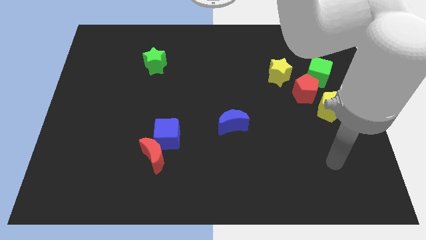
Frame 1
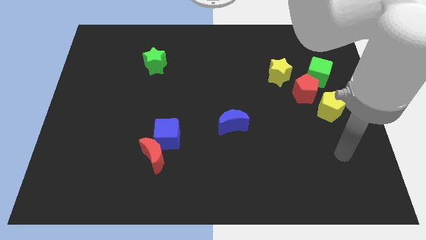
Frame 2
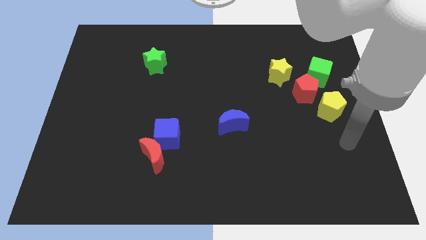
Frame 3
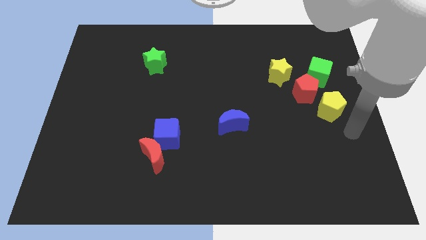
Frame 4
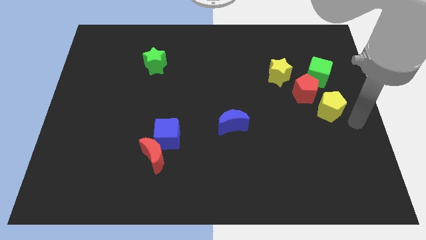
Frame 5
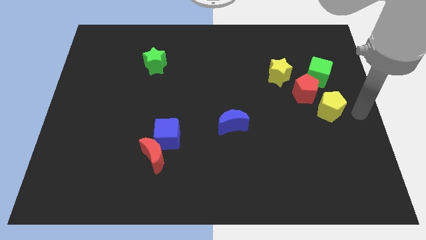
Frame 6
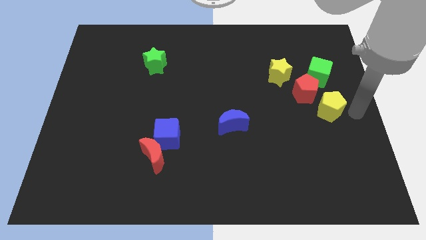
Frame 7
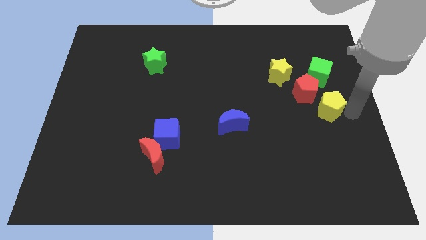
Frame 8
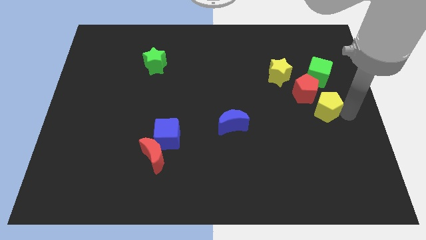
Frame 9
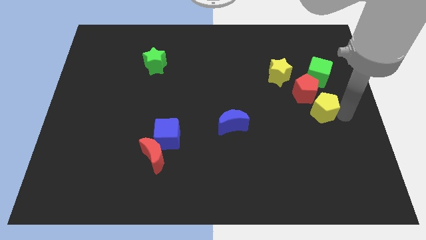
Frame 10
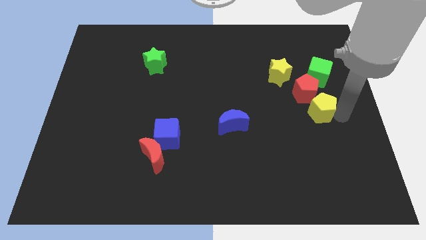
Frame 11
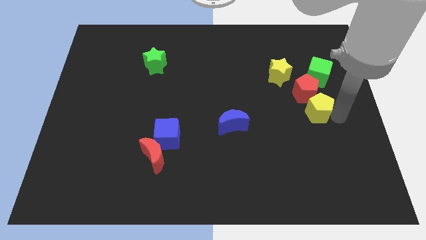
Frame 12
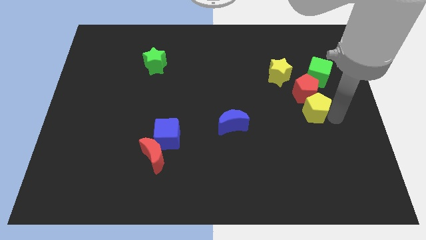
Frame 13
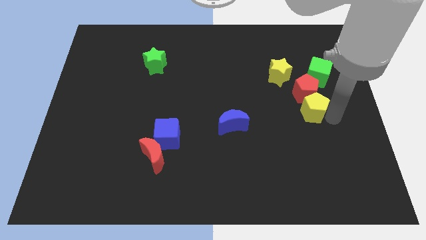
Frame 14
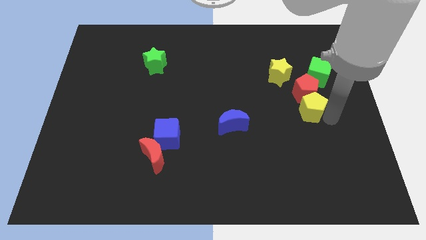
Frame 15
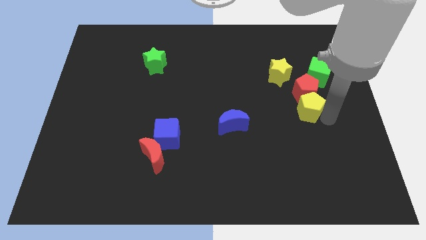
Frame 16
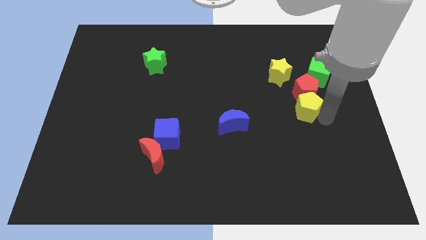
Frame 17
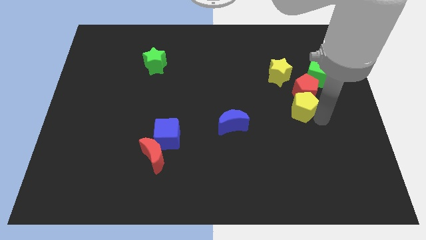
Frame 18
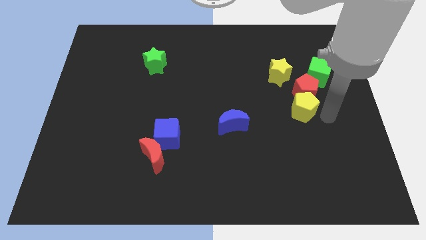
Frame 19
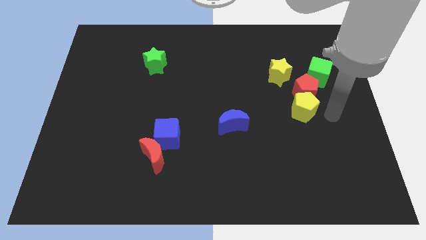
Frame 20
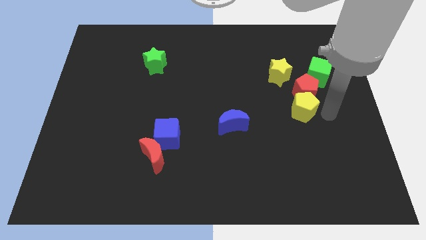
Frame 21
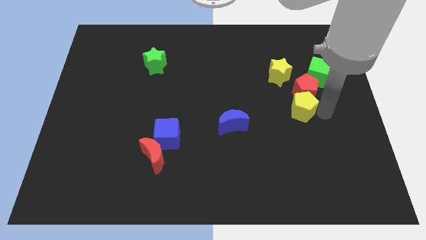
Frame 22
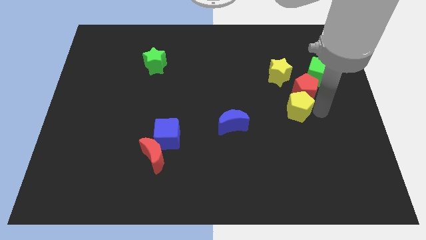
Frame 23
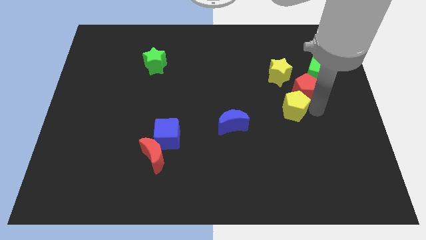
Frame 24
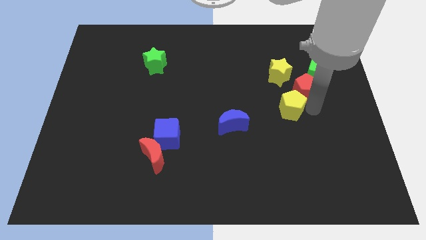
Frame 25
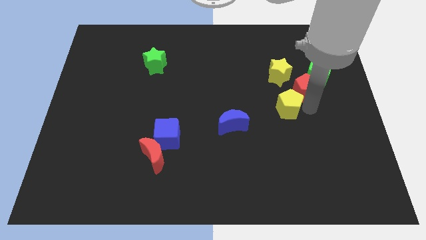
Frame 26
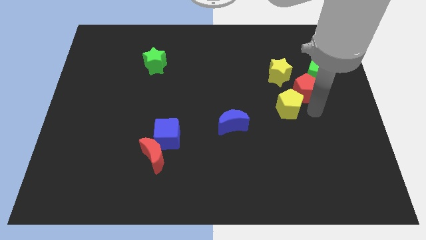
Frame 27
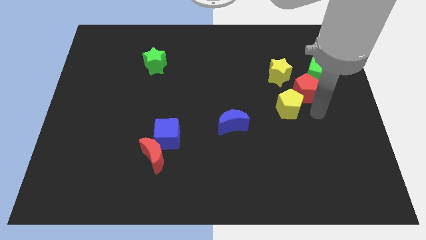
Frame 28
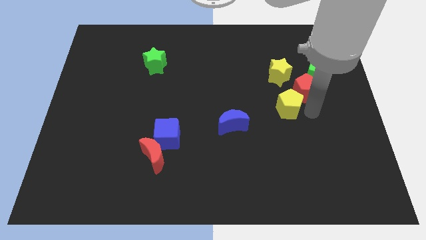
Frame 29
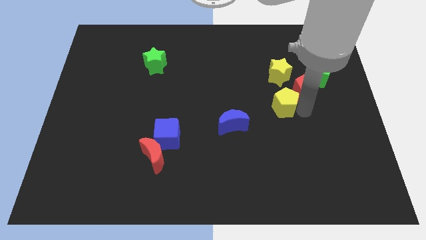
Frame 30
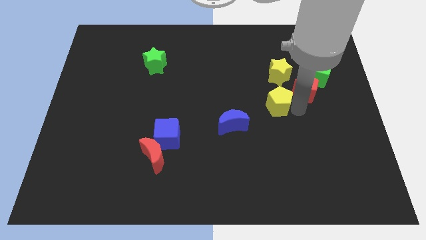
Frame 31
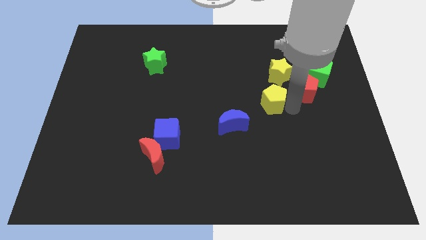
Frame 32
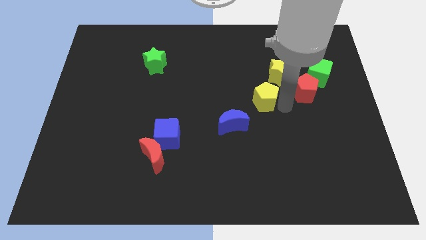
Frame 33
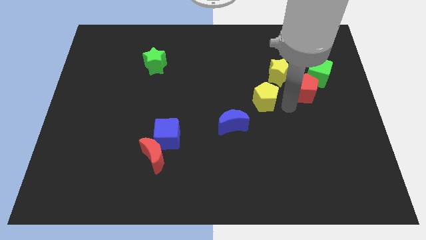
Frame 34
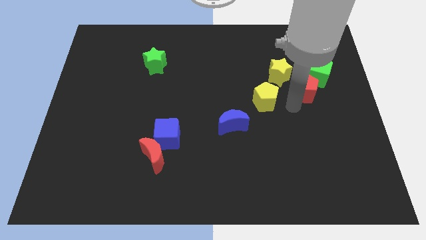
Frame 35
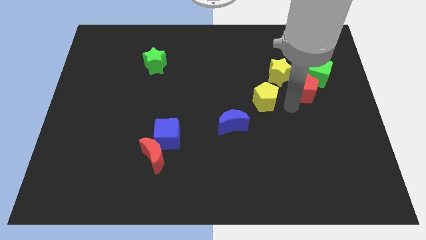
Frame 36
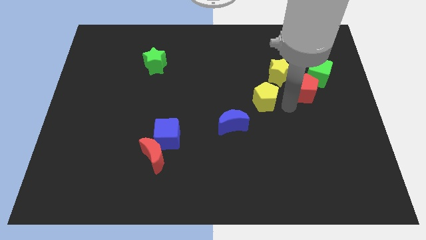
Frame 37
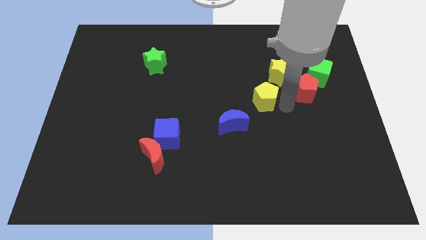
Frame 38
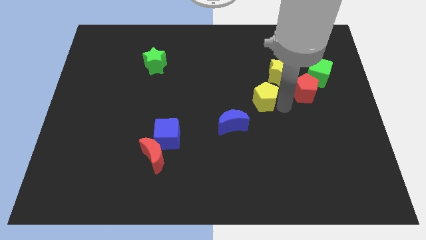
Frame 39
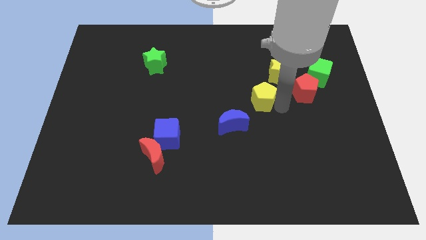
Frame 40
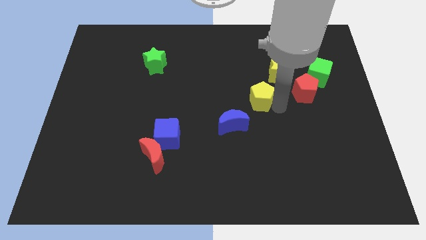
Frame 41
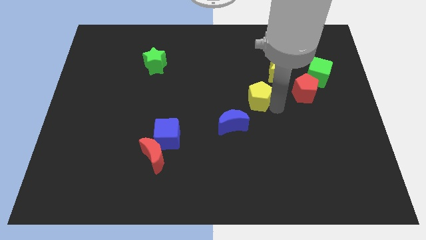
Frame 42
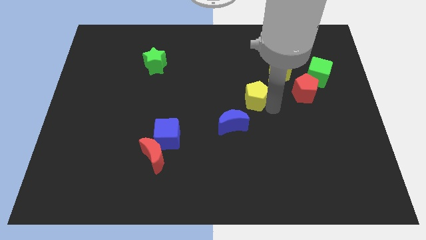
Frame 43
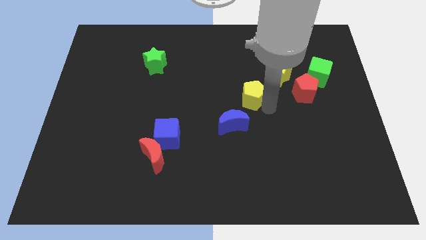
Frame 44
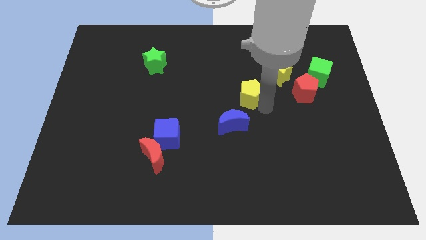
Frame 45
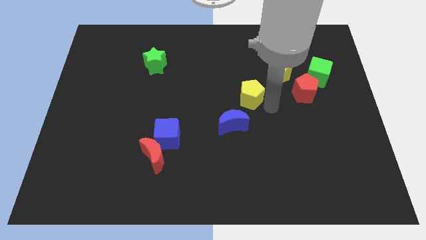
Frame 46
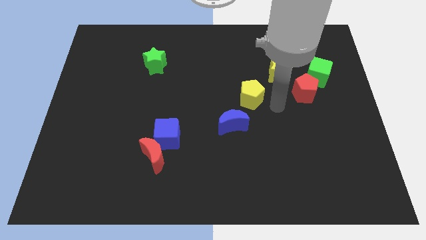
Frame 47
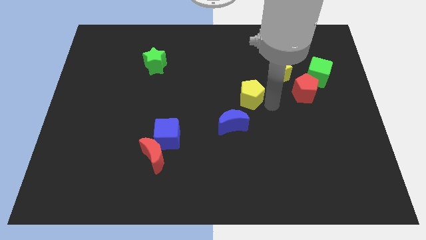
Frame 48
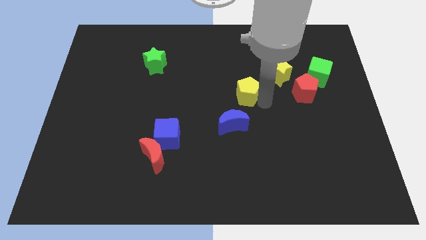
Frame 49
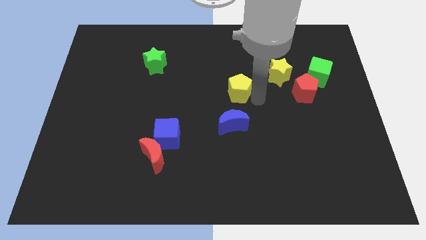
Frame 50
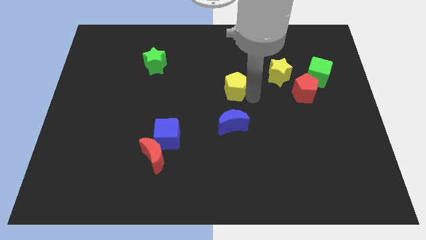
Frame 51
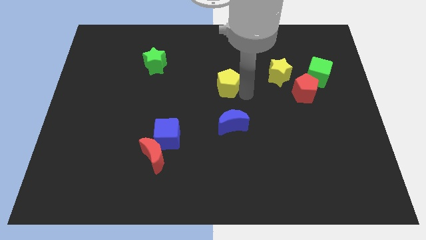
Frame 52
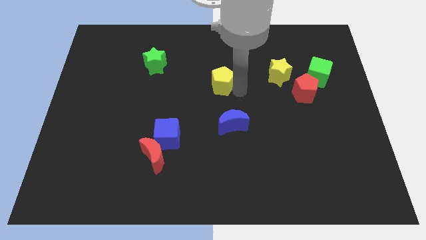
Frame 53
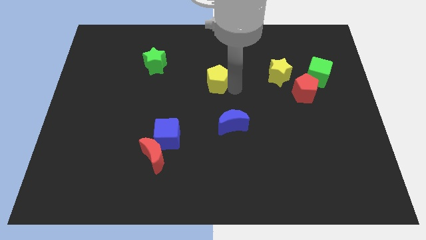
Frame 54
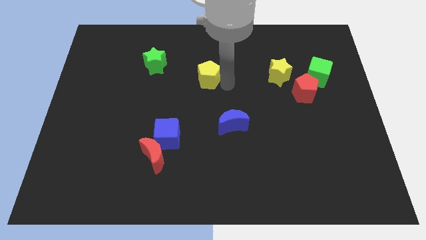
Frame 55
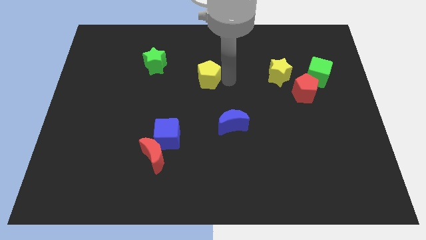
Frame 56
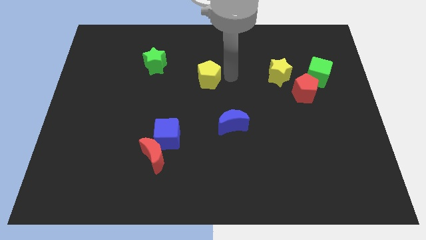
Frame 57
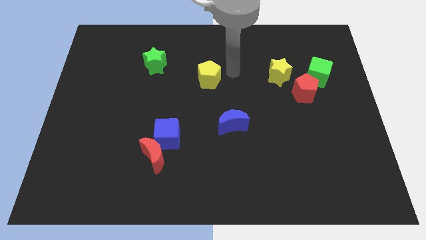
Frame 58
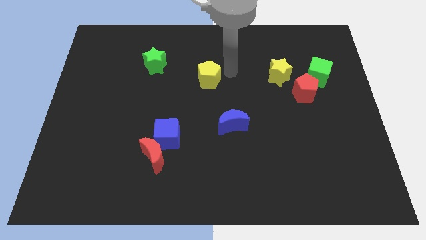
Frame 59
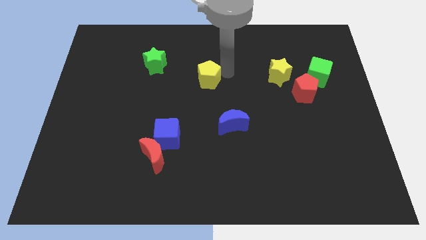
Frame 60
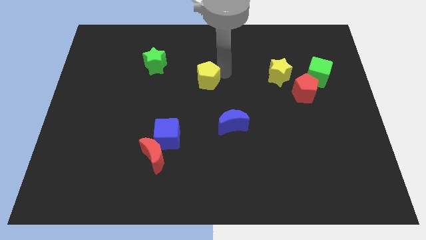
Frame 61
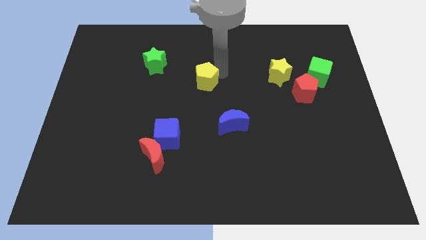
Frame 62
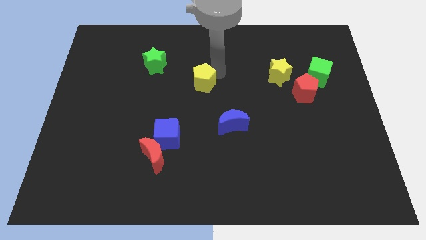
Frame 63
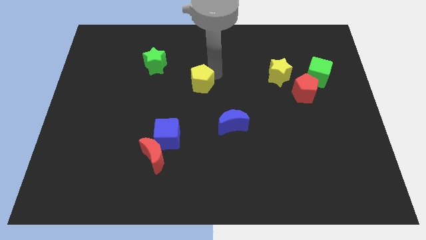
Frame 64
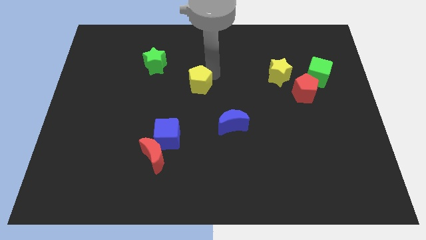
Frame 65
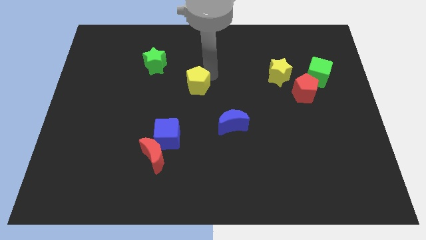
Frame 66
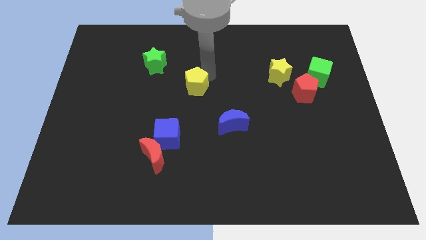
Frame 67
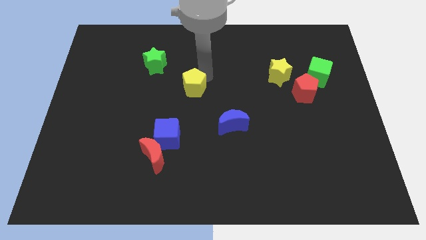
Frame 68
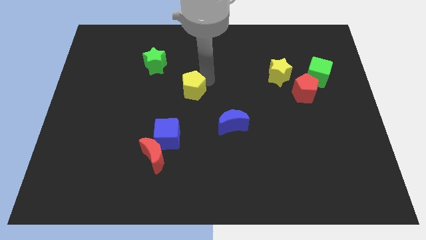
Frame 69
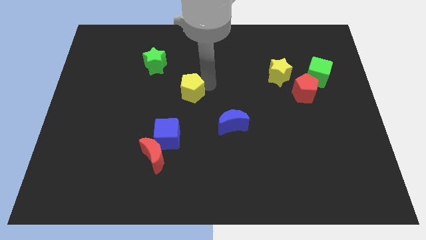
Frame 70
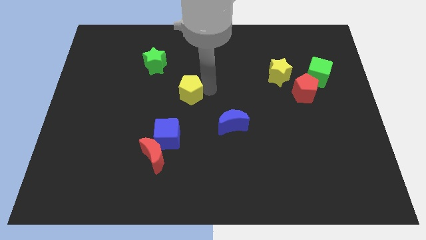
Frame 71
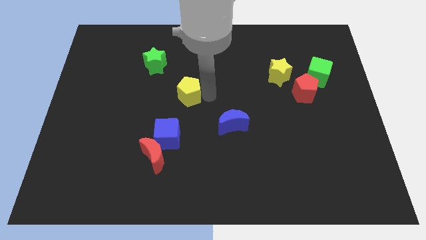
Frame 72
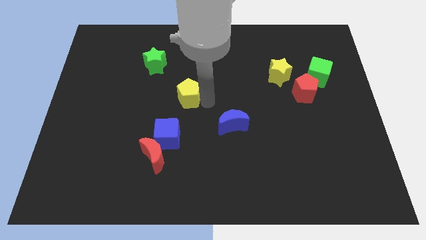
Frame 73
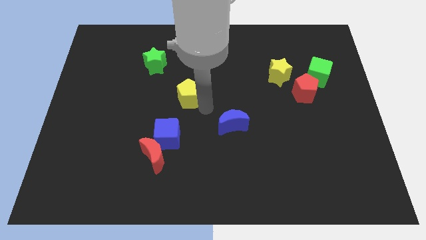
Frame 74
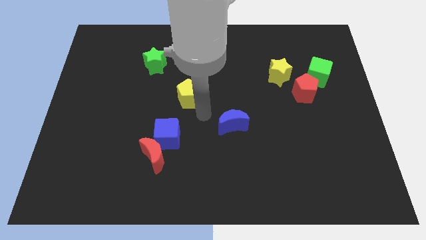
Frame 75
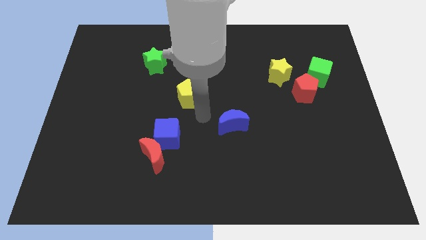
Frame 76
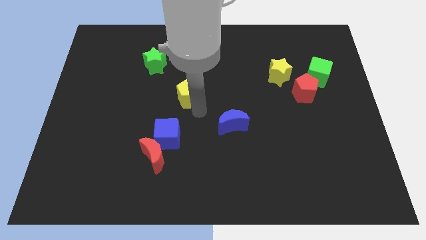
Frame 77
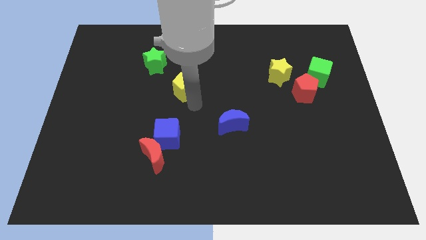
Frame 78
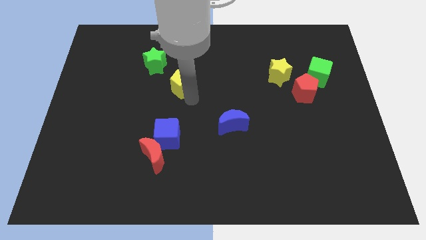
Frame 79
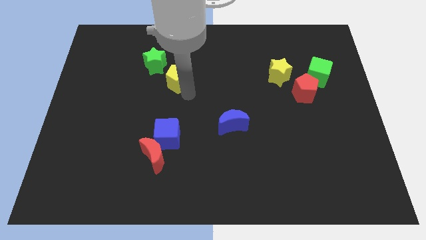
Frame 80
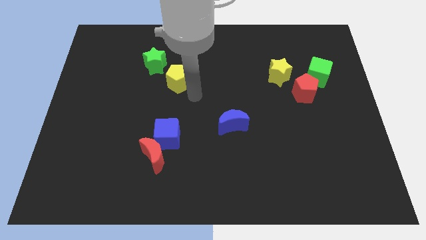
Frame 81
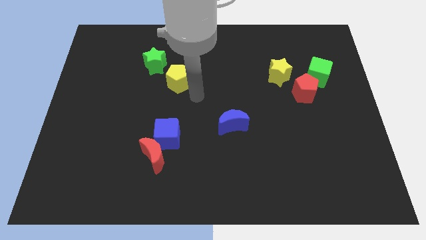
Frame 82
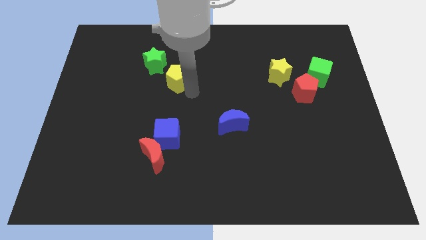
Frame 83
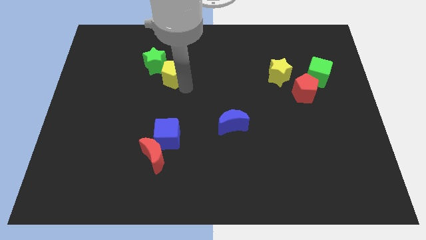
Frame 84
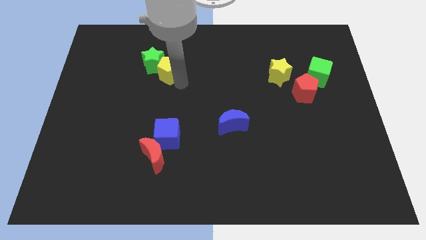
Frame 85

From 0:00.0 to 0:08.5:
slide the yellow pentagon to the green star
